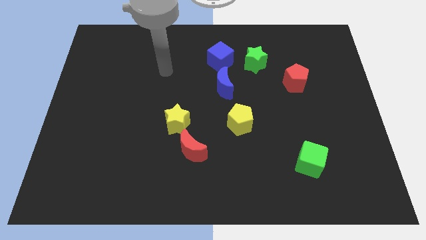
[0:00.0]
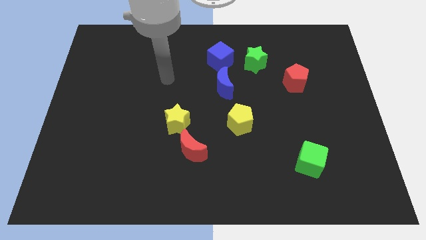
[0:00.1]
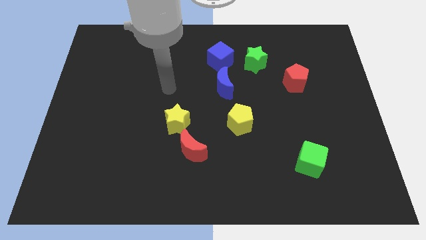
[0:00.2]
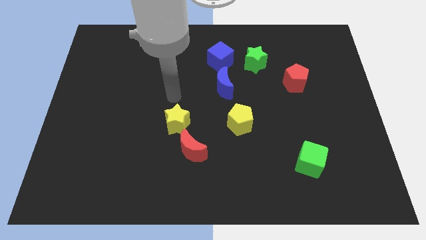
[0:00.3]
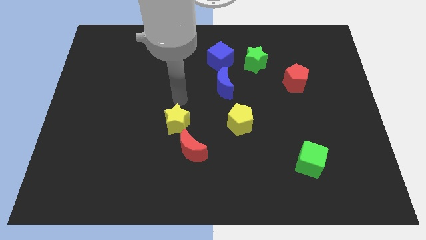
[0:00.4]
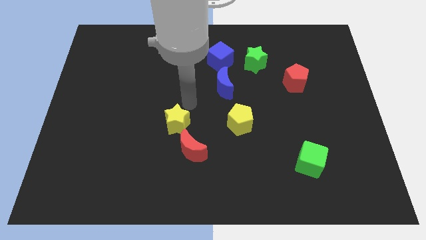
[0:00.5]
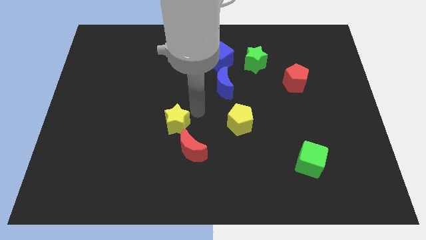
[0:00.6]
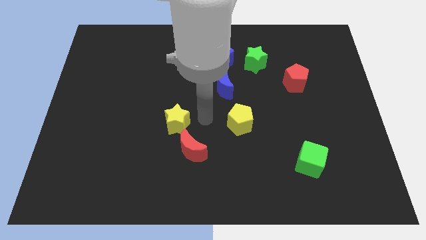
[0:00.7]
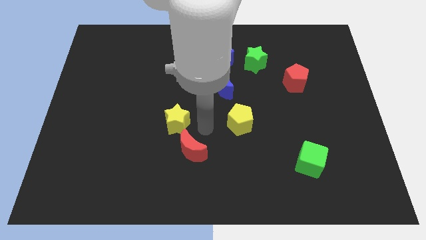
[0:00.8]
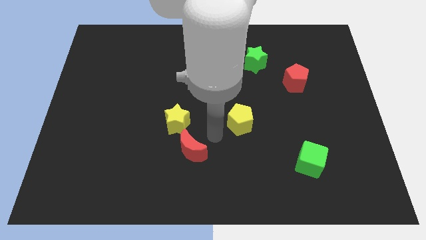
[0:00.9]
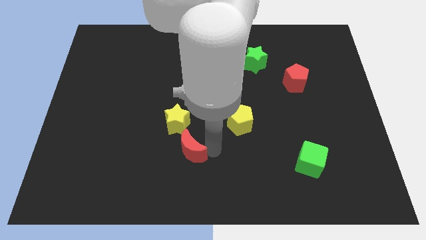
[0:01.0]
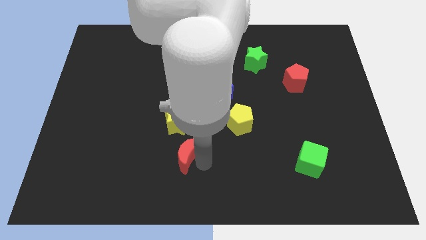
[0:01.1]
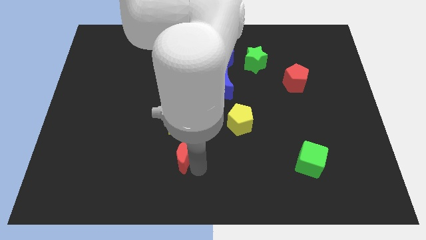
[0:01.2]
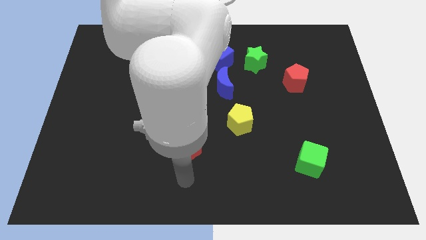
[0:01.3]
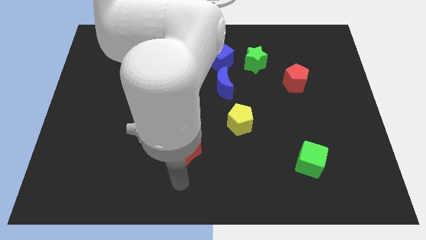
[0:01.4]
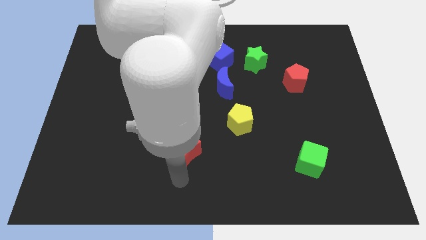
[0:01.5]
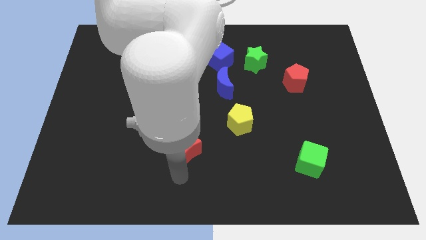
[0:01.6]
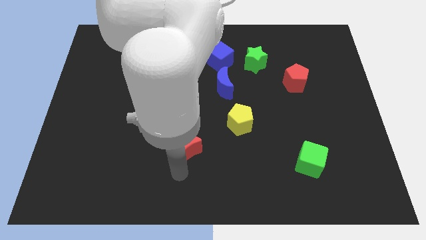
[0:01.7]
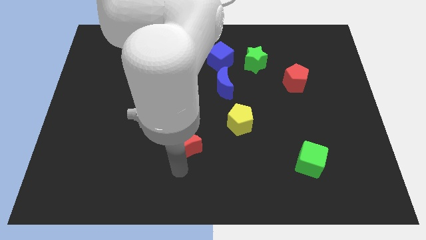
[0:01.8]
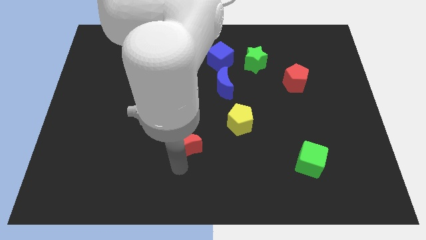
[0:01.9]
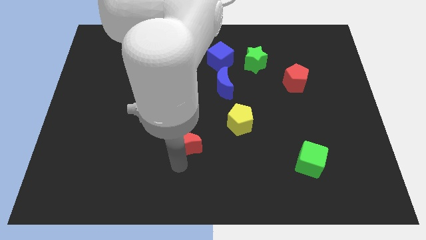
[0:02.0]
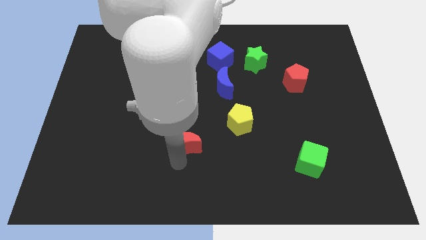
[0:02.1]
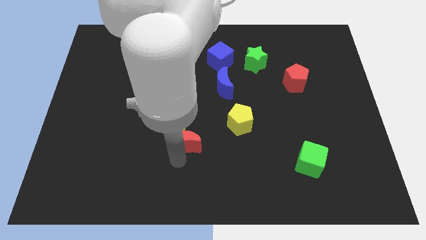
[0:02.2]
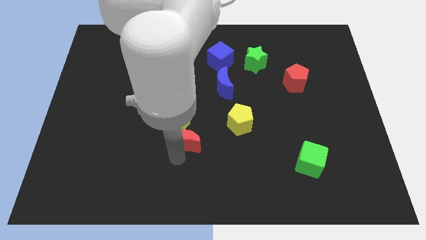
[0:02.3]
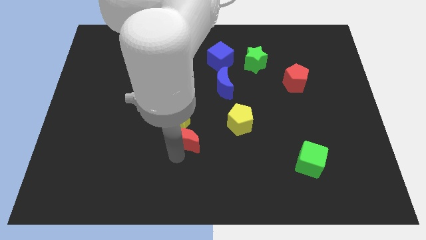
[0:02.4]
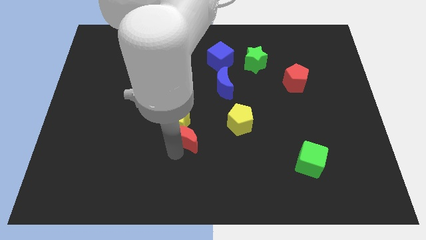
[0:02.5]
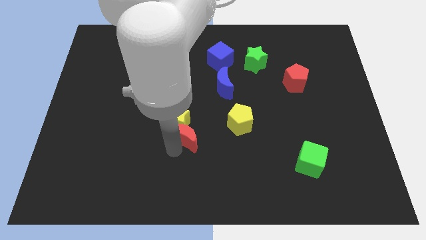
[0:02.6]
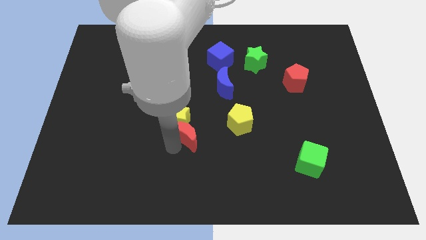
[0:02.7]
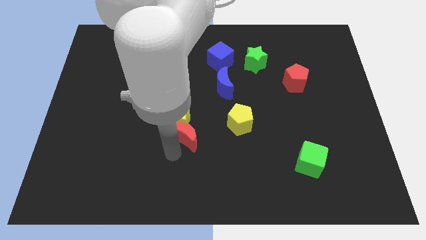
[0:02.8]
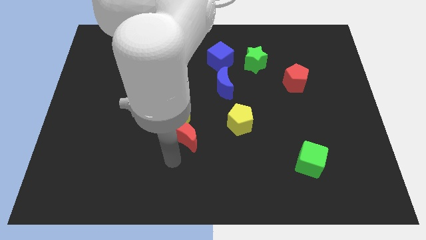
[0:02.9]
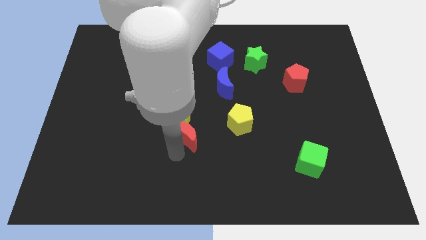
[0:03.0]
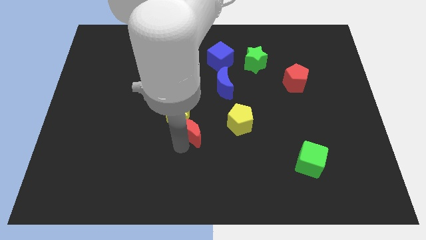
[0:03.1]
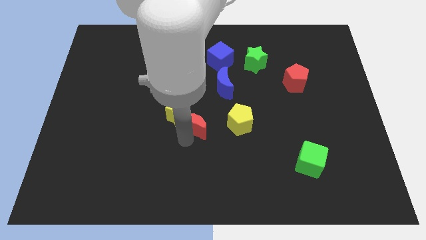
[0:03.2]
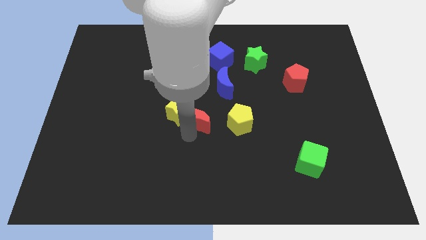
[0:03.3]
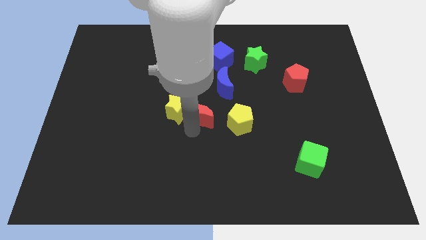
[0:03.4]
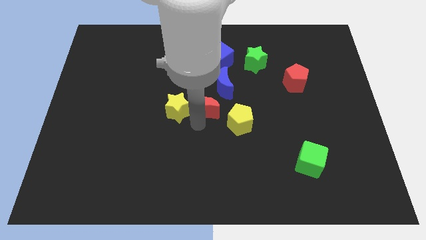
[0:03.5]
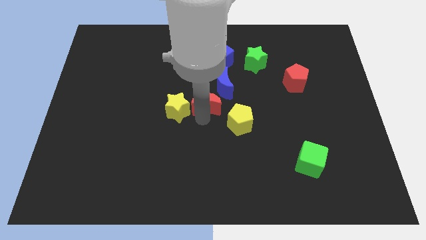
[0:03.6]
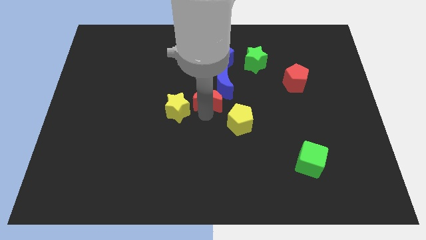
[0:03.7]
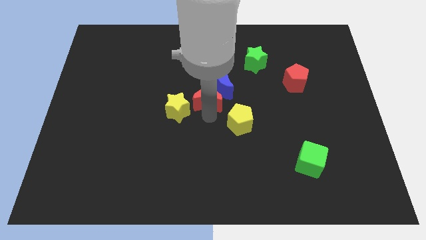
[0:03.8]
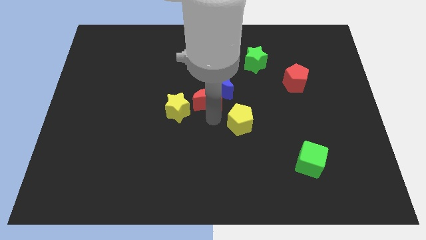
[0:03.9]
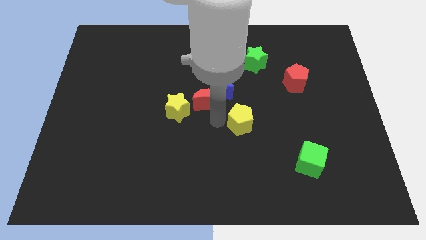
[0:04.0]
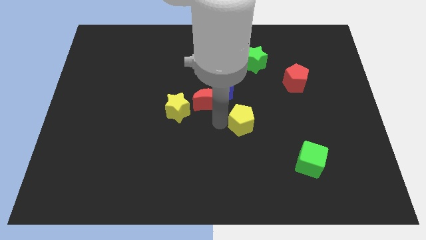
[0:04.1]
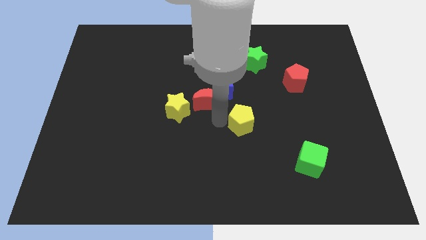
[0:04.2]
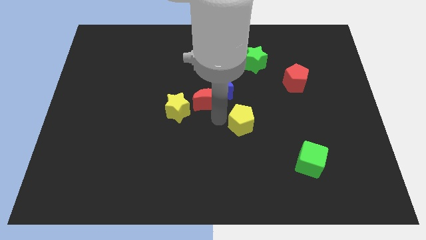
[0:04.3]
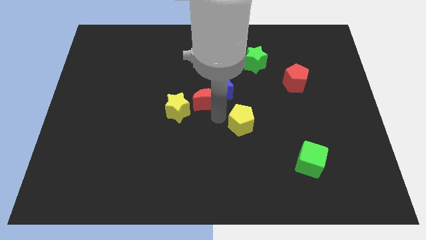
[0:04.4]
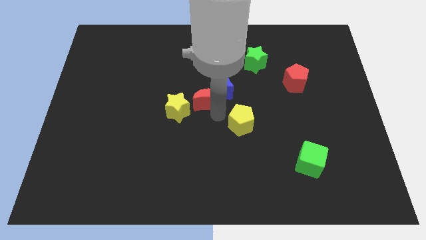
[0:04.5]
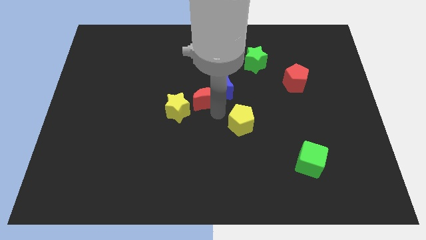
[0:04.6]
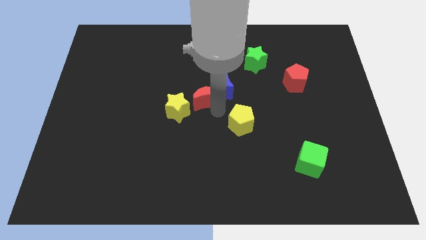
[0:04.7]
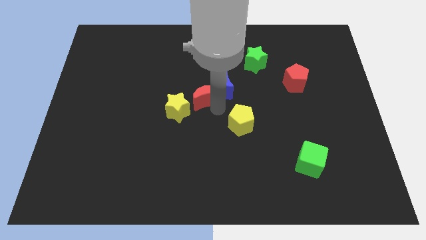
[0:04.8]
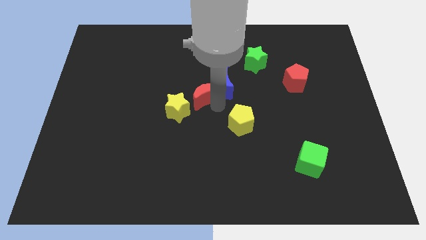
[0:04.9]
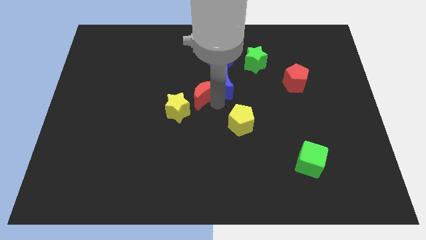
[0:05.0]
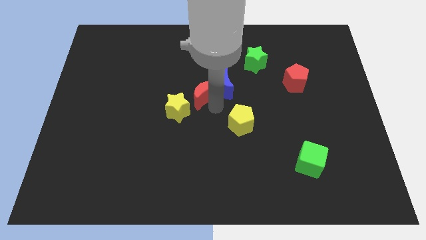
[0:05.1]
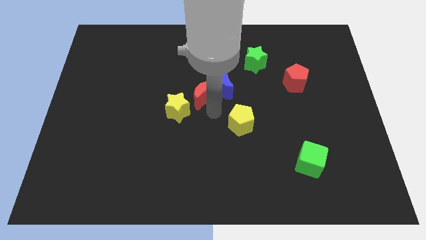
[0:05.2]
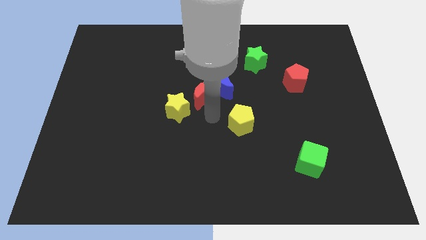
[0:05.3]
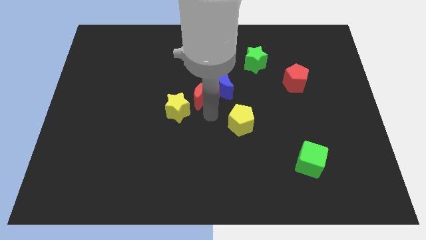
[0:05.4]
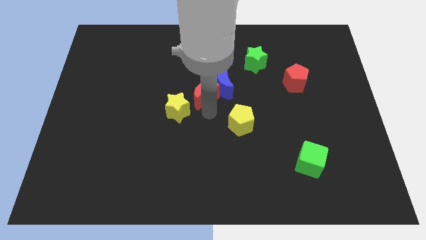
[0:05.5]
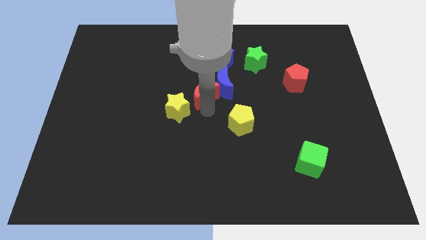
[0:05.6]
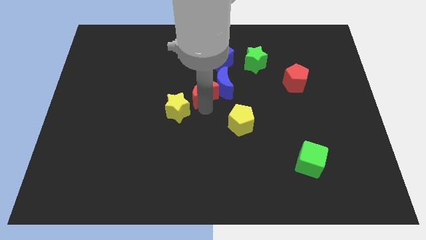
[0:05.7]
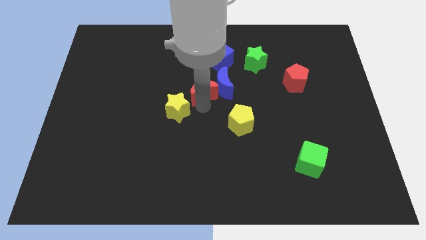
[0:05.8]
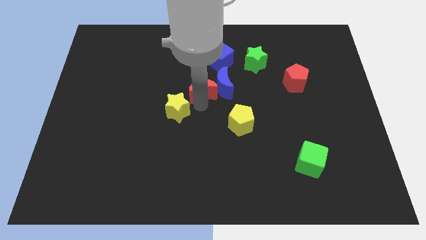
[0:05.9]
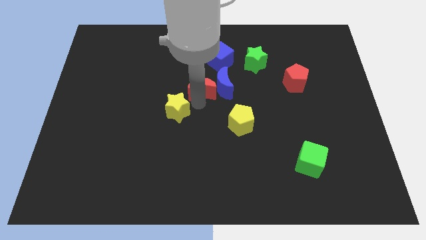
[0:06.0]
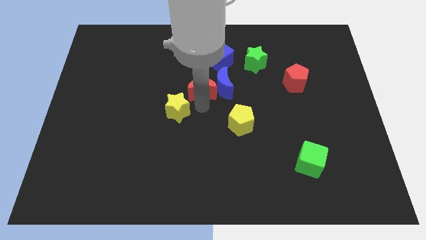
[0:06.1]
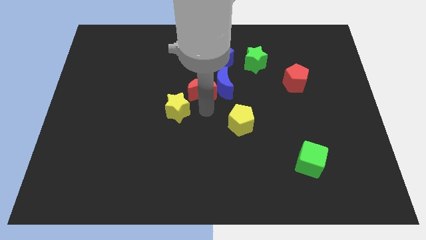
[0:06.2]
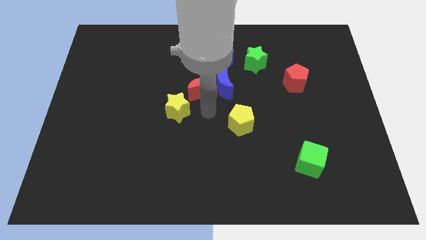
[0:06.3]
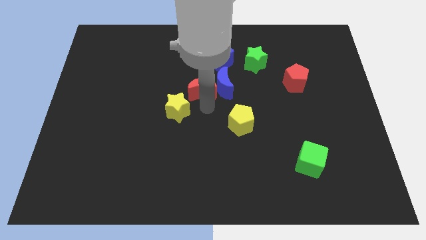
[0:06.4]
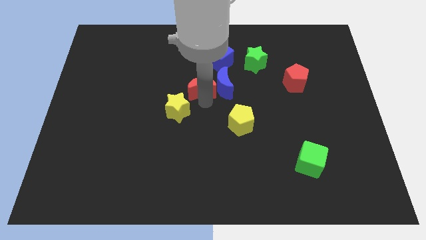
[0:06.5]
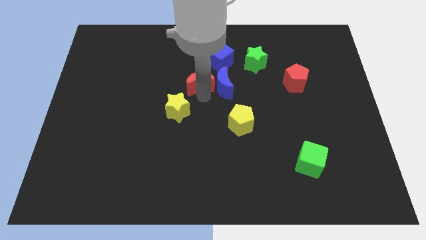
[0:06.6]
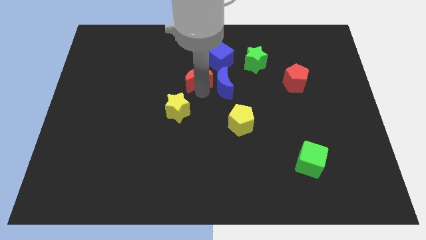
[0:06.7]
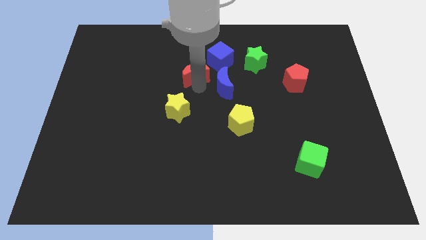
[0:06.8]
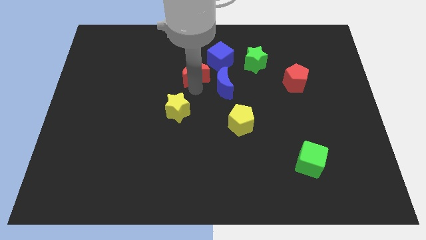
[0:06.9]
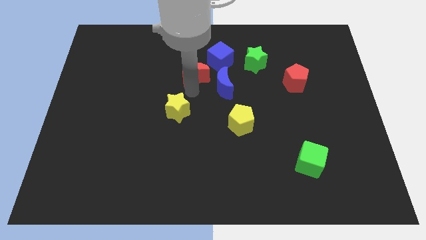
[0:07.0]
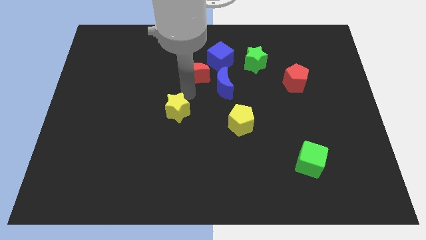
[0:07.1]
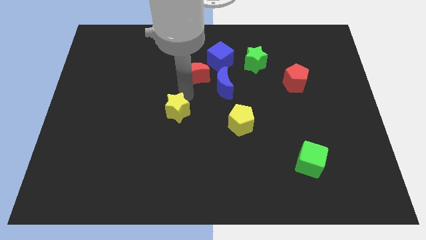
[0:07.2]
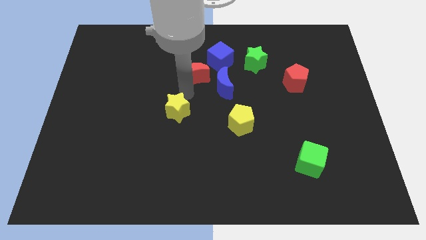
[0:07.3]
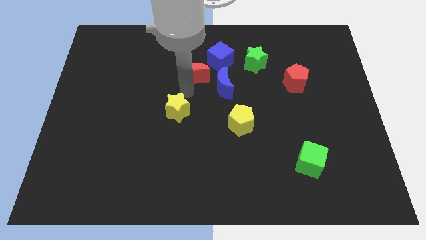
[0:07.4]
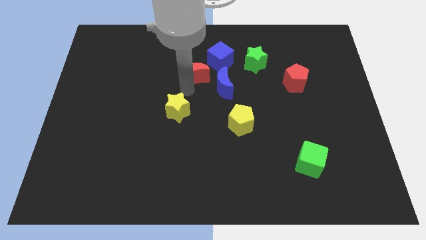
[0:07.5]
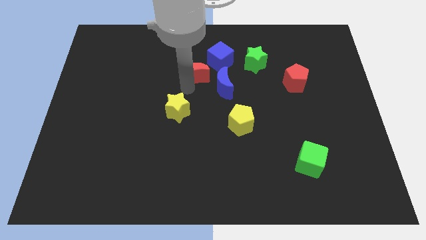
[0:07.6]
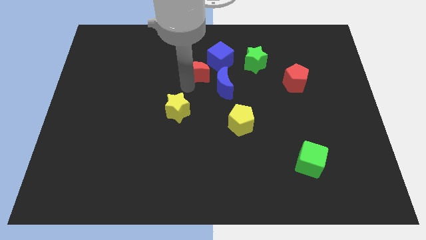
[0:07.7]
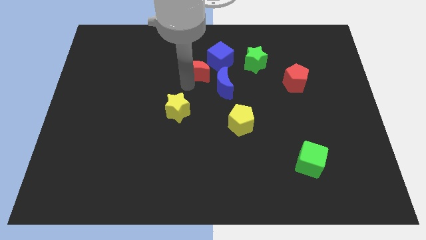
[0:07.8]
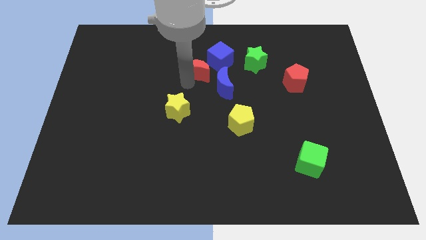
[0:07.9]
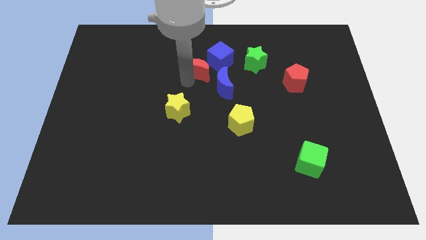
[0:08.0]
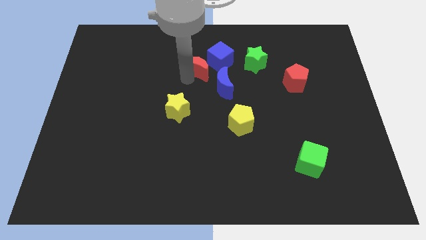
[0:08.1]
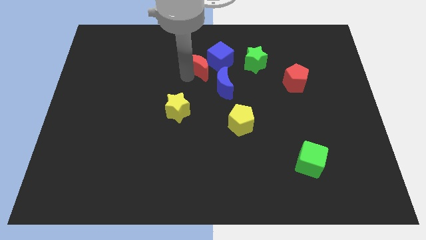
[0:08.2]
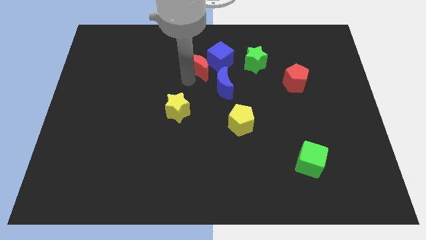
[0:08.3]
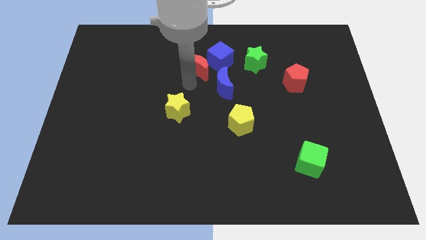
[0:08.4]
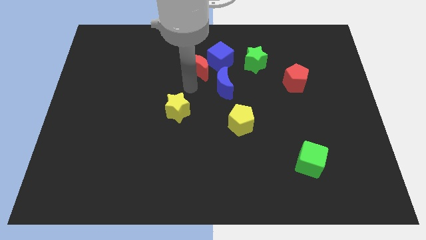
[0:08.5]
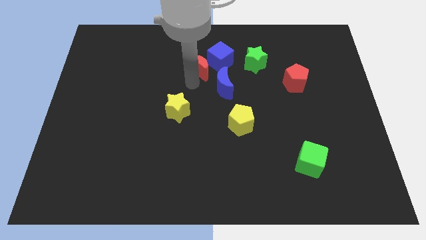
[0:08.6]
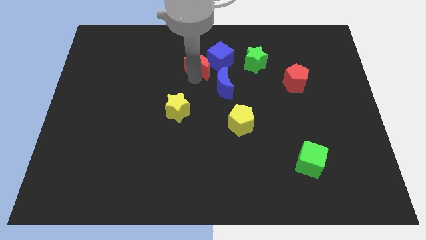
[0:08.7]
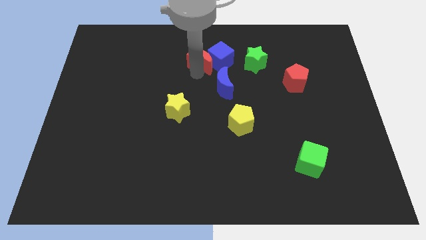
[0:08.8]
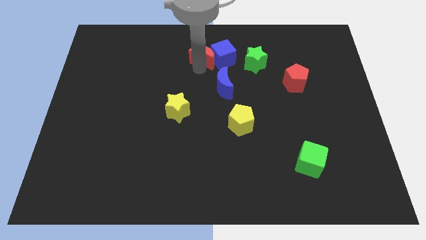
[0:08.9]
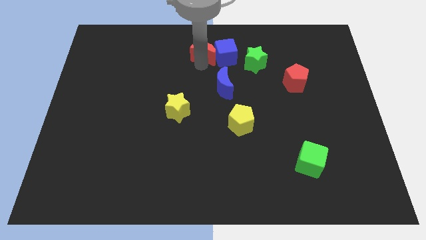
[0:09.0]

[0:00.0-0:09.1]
slide the red moon to the top side
